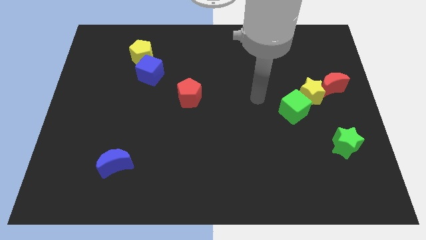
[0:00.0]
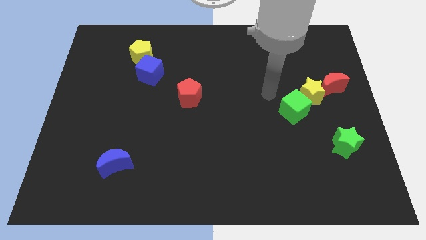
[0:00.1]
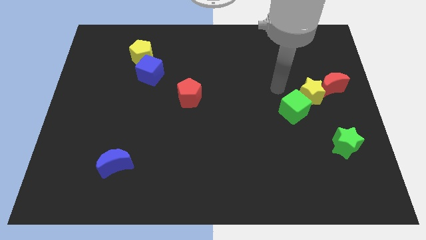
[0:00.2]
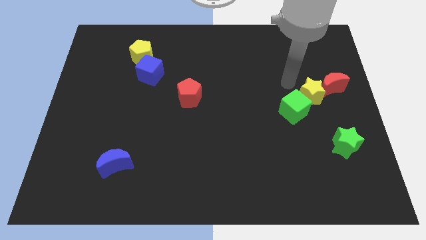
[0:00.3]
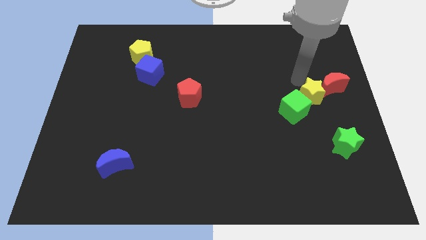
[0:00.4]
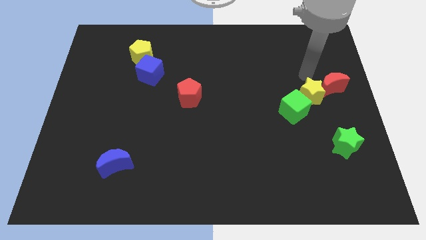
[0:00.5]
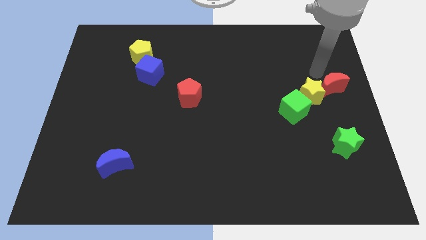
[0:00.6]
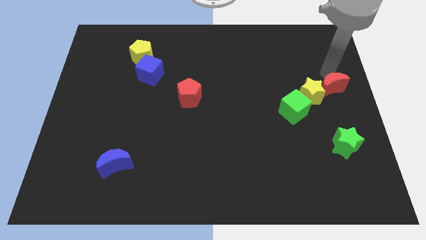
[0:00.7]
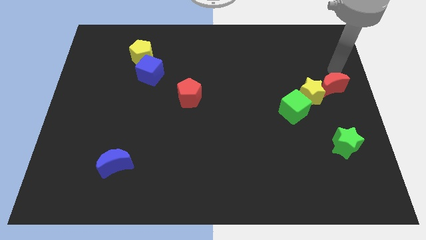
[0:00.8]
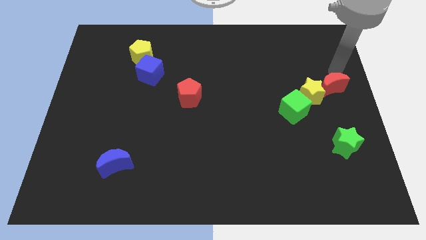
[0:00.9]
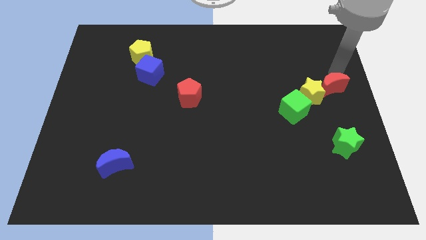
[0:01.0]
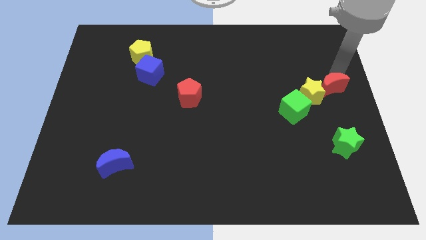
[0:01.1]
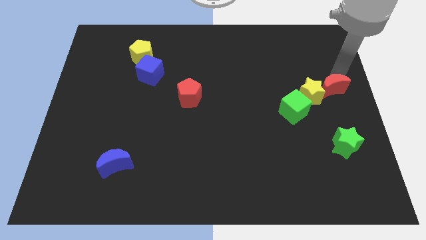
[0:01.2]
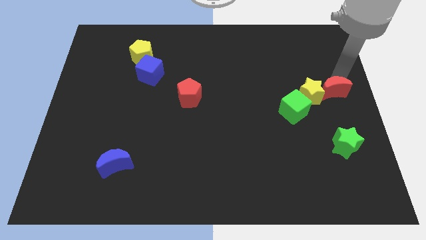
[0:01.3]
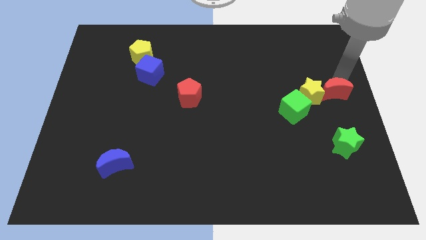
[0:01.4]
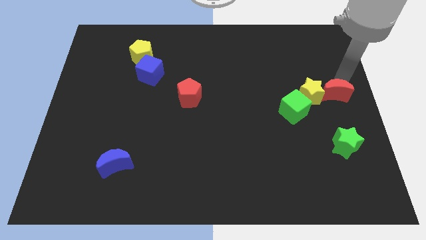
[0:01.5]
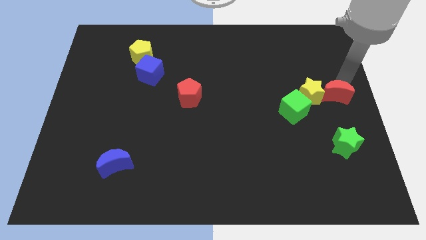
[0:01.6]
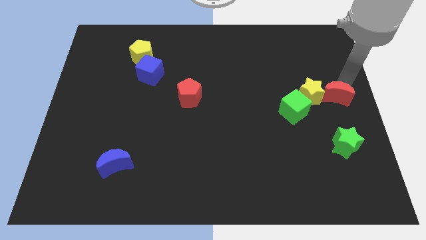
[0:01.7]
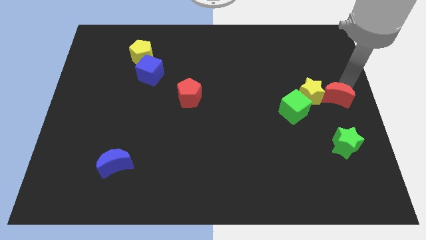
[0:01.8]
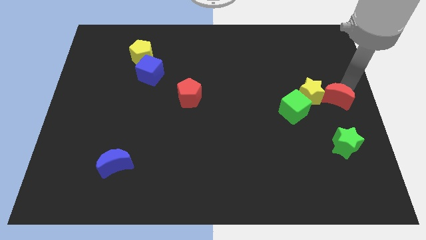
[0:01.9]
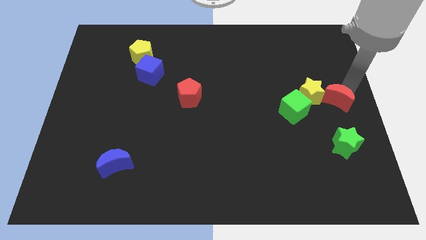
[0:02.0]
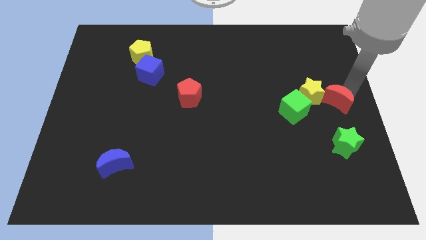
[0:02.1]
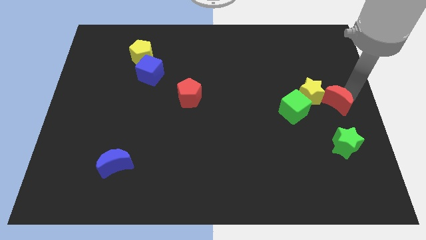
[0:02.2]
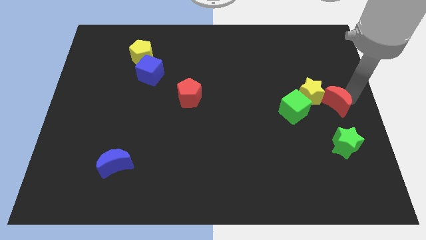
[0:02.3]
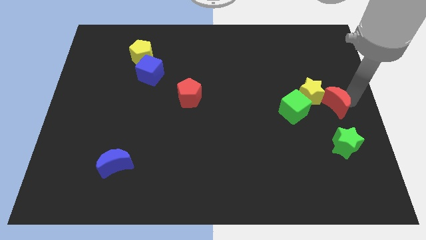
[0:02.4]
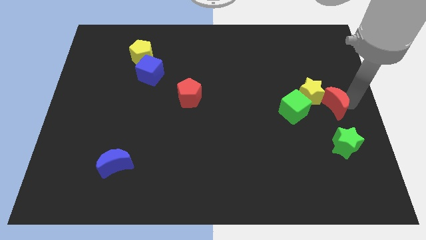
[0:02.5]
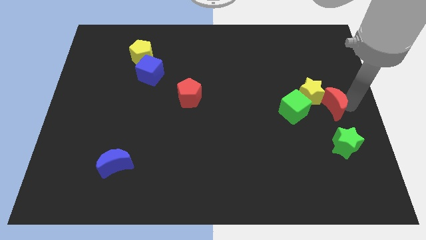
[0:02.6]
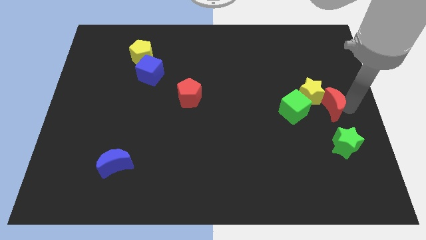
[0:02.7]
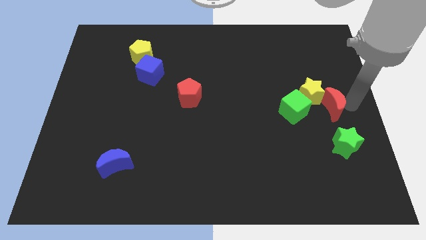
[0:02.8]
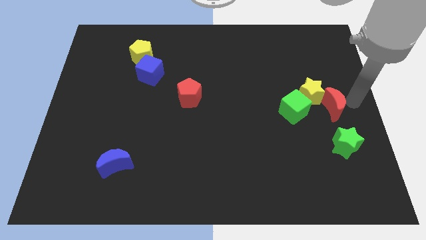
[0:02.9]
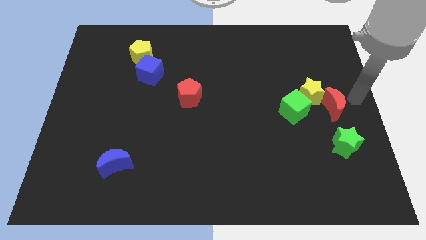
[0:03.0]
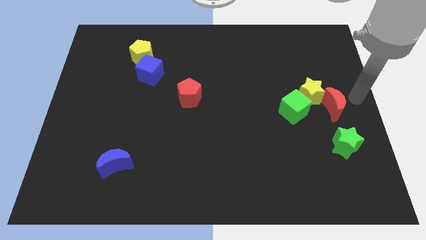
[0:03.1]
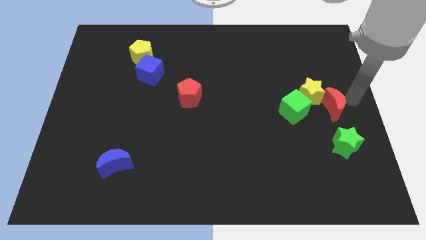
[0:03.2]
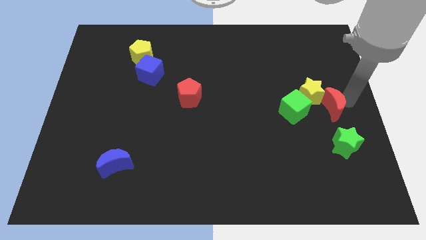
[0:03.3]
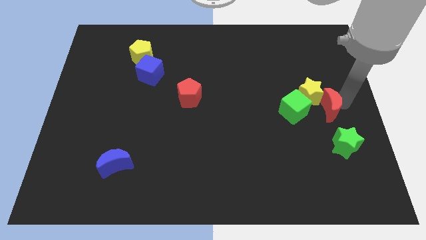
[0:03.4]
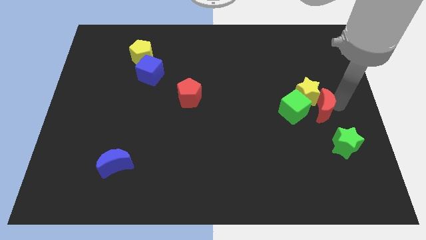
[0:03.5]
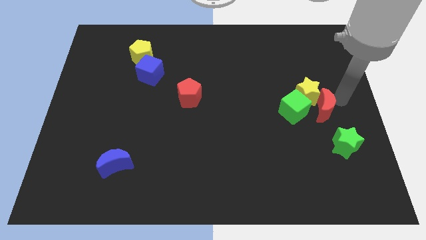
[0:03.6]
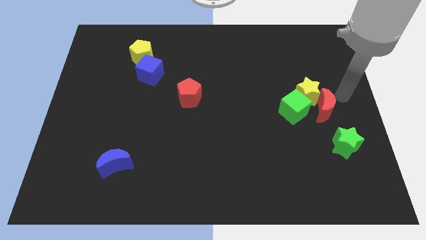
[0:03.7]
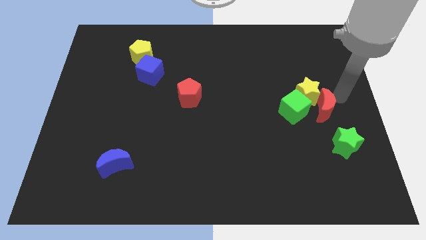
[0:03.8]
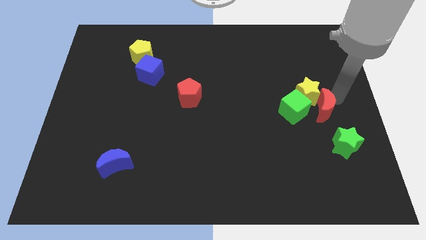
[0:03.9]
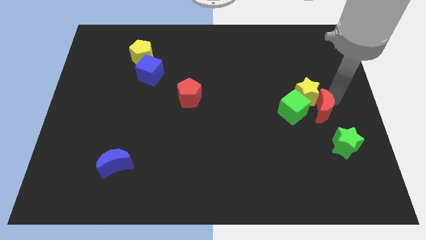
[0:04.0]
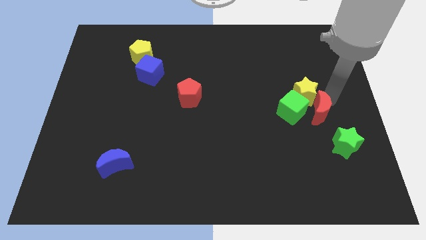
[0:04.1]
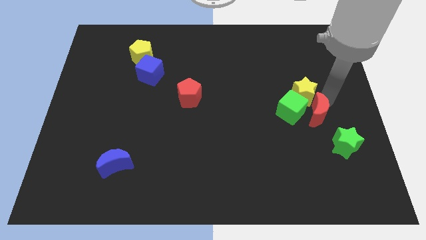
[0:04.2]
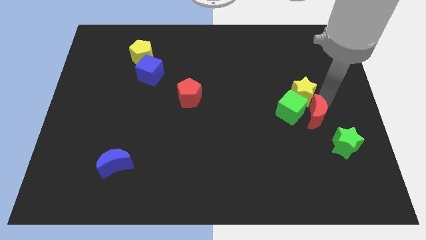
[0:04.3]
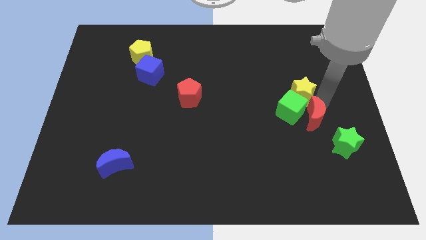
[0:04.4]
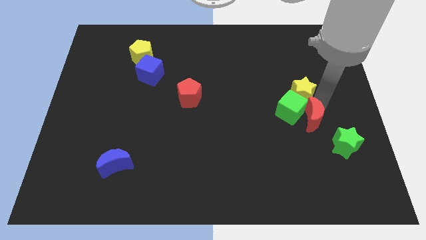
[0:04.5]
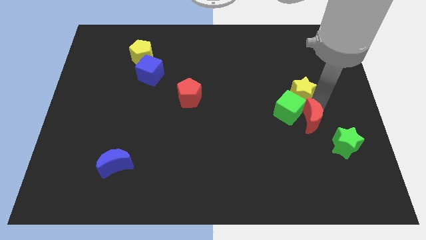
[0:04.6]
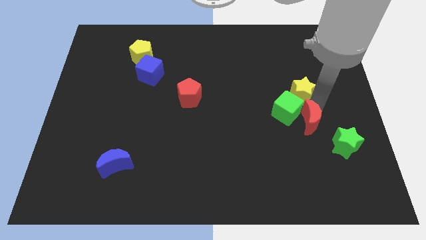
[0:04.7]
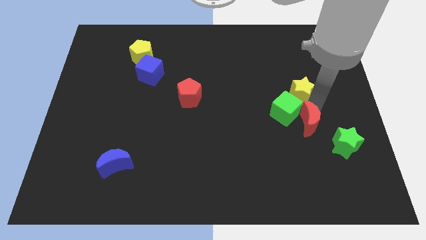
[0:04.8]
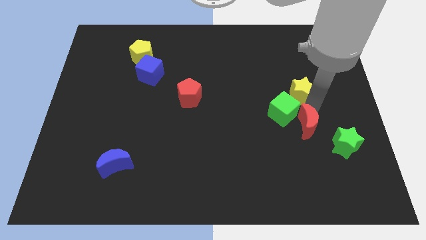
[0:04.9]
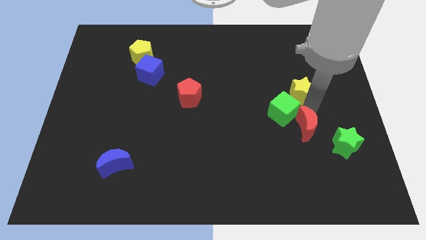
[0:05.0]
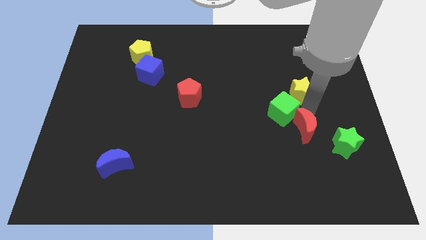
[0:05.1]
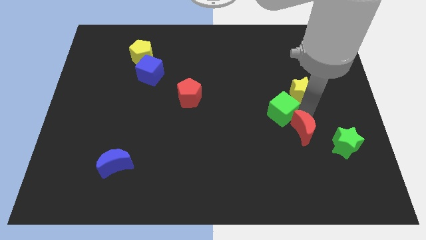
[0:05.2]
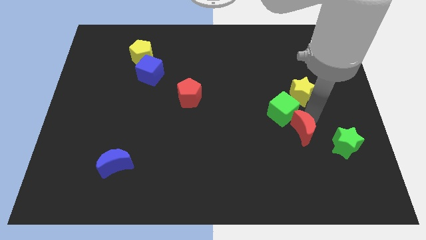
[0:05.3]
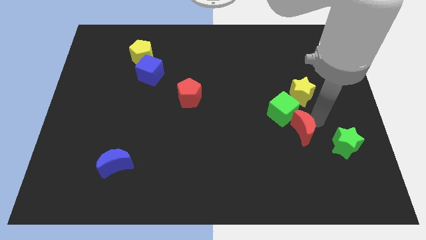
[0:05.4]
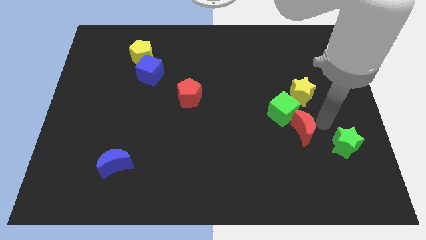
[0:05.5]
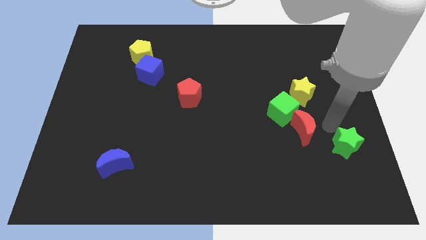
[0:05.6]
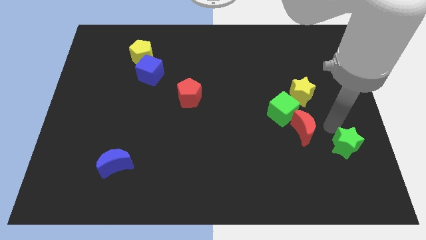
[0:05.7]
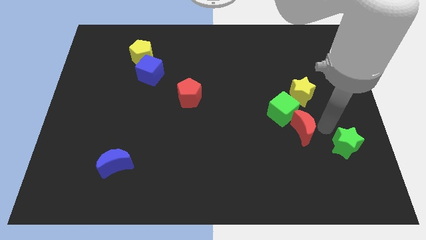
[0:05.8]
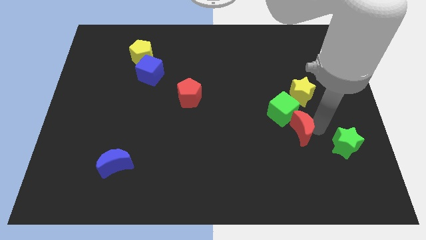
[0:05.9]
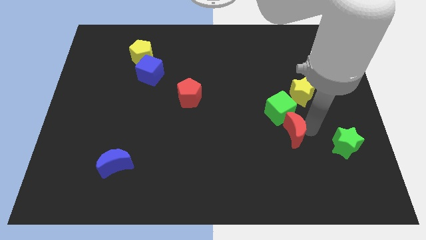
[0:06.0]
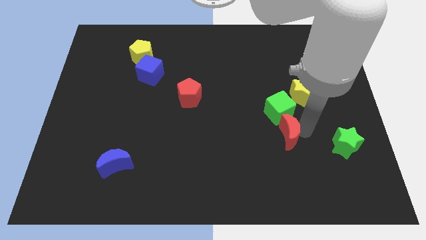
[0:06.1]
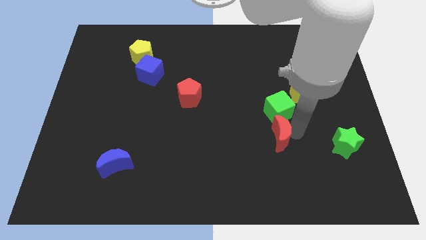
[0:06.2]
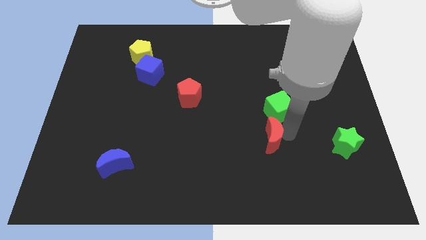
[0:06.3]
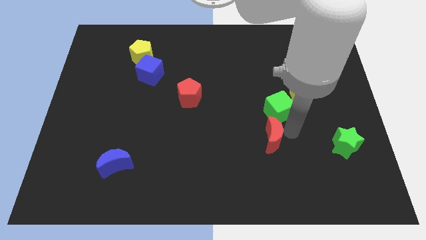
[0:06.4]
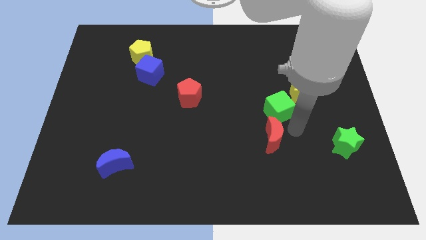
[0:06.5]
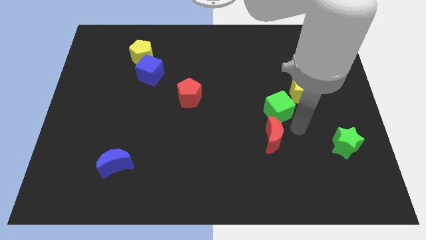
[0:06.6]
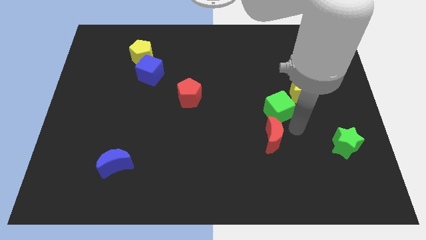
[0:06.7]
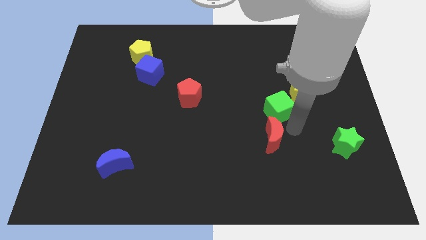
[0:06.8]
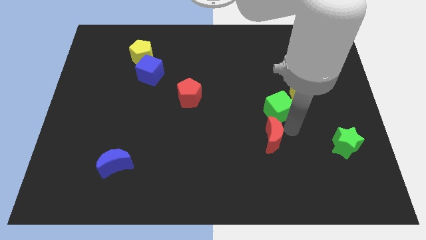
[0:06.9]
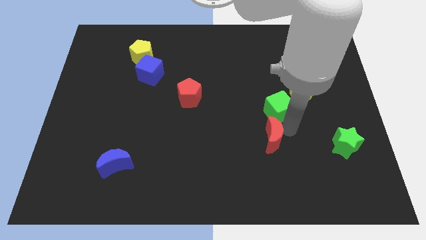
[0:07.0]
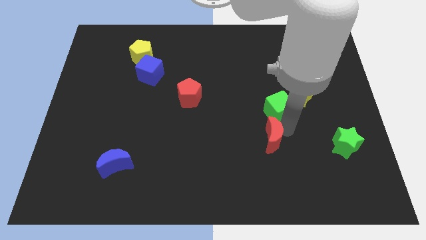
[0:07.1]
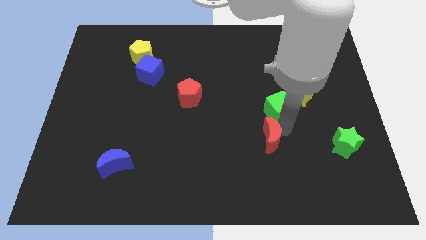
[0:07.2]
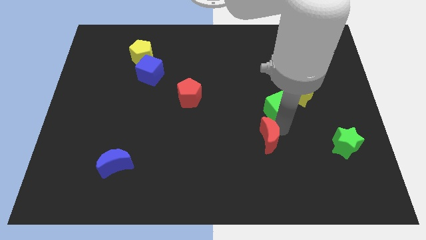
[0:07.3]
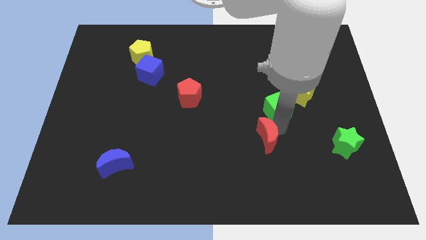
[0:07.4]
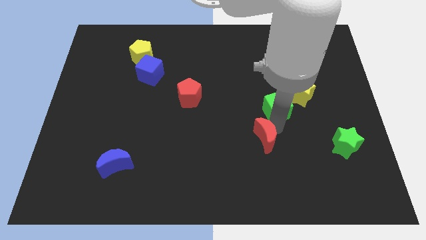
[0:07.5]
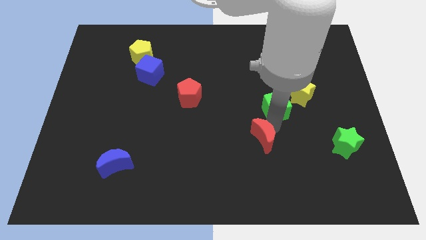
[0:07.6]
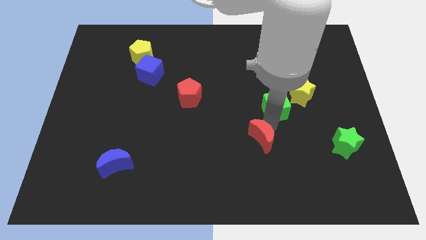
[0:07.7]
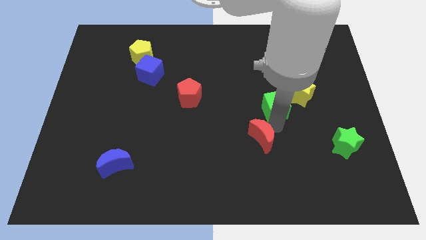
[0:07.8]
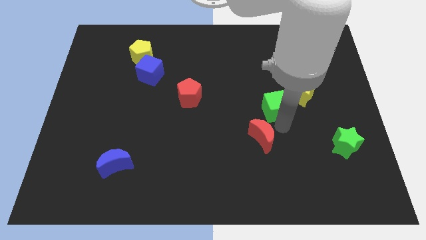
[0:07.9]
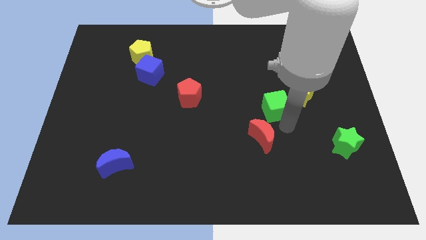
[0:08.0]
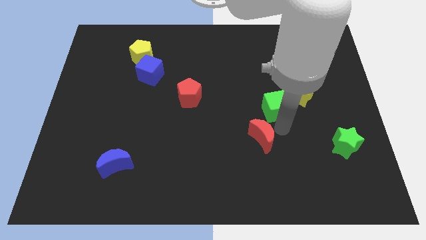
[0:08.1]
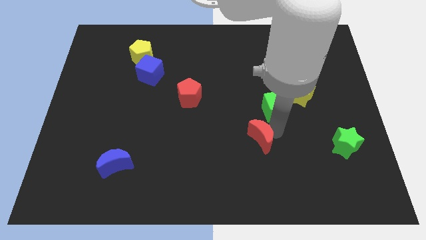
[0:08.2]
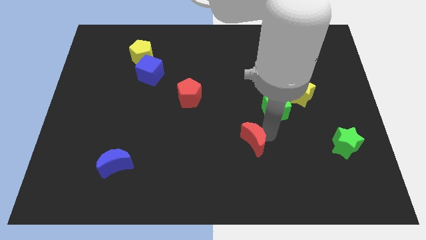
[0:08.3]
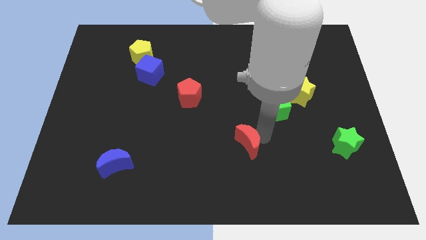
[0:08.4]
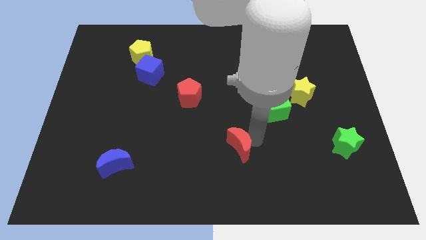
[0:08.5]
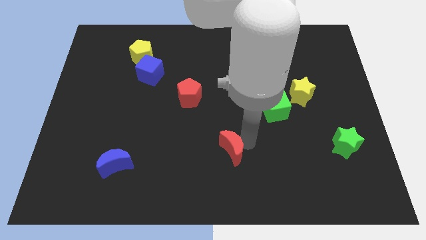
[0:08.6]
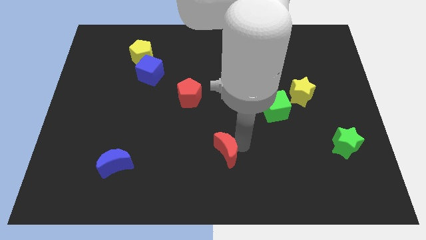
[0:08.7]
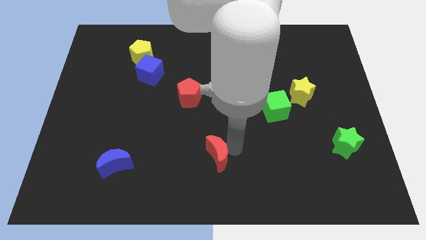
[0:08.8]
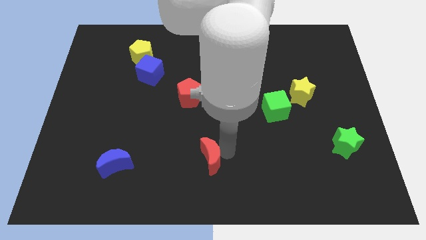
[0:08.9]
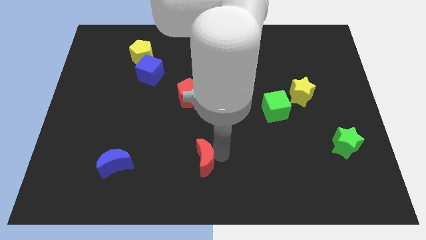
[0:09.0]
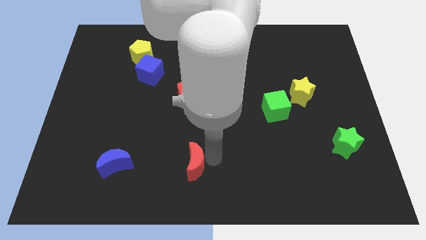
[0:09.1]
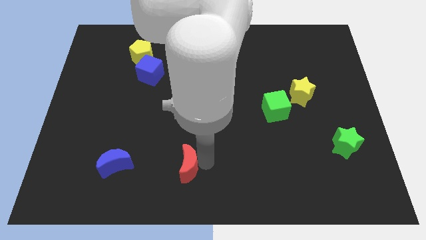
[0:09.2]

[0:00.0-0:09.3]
move the red moon right of the blue moon
